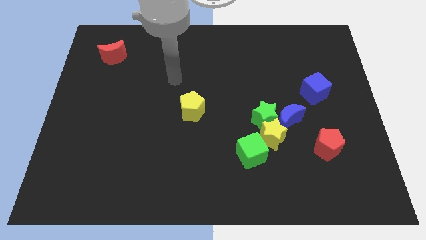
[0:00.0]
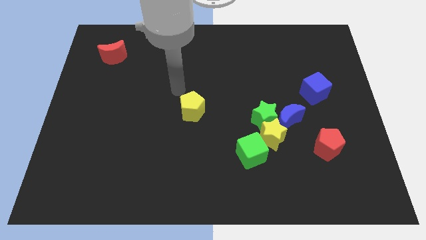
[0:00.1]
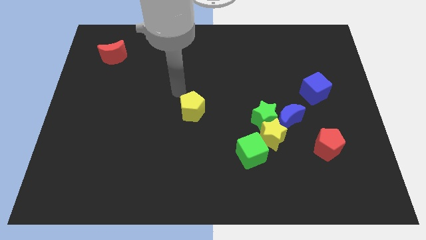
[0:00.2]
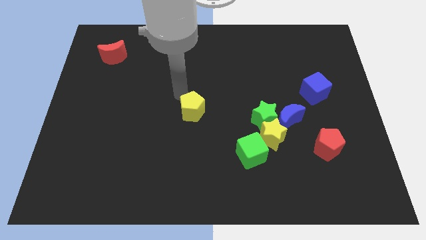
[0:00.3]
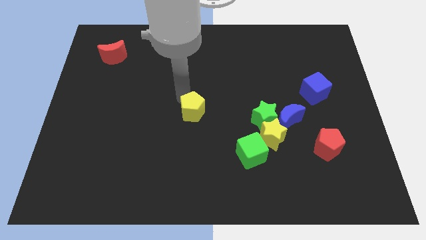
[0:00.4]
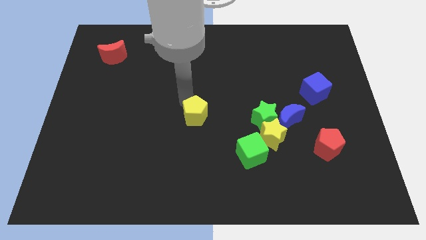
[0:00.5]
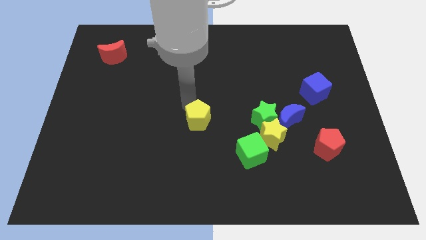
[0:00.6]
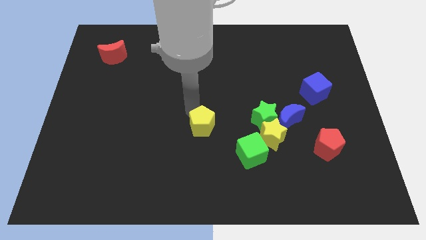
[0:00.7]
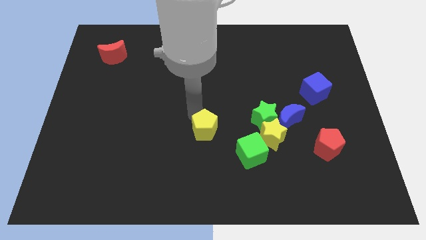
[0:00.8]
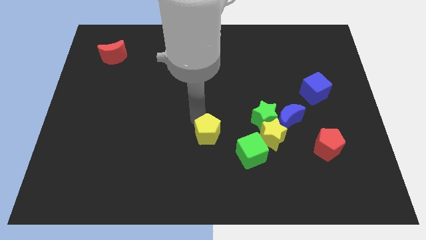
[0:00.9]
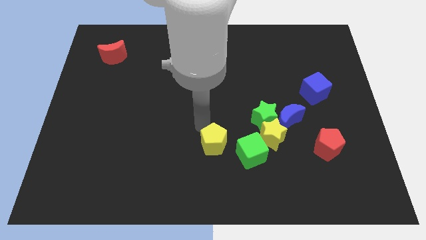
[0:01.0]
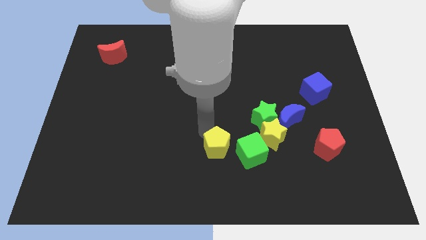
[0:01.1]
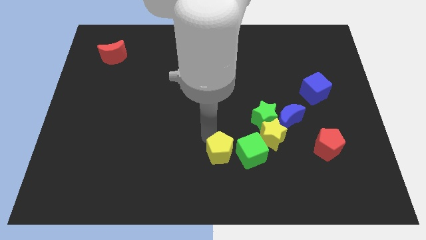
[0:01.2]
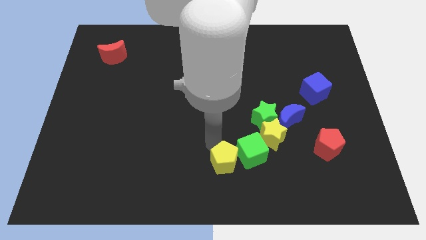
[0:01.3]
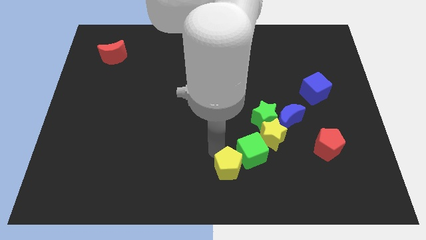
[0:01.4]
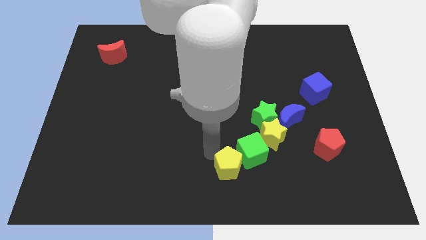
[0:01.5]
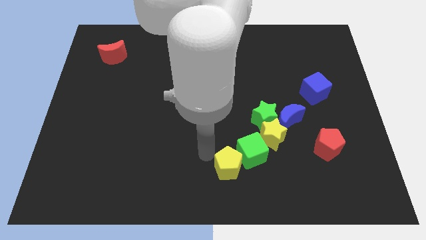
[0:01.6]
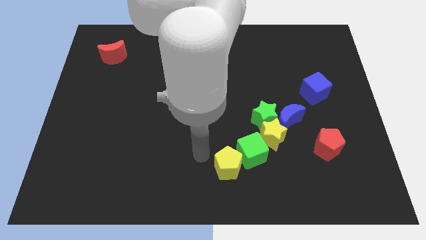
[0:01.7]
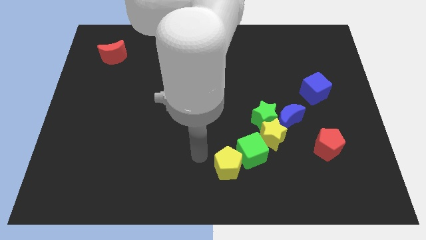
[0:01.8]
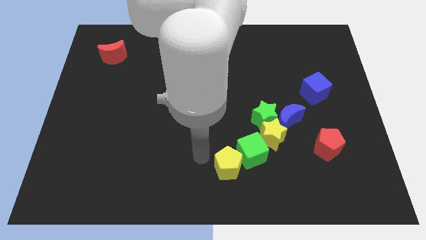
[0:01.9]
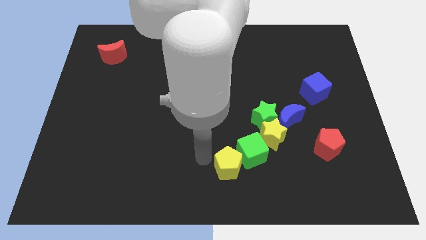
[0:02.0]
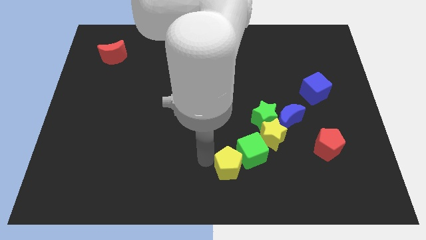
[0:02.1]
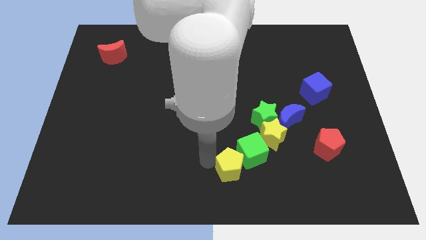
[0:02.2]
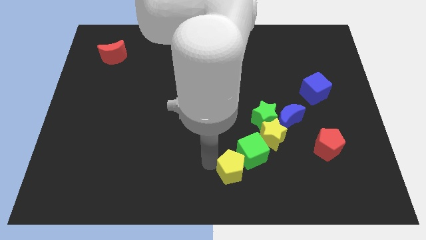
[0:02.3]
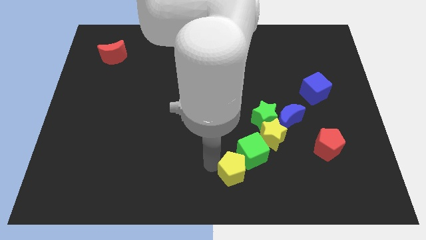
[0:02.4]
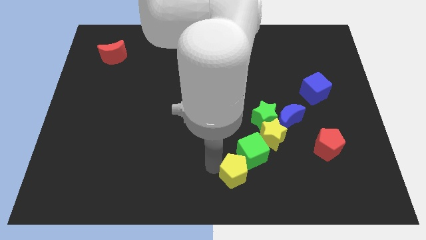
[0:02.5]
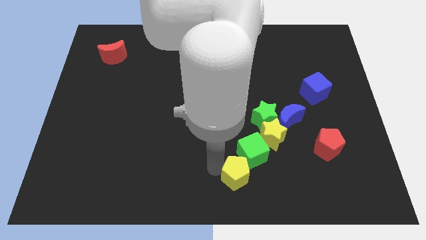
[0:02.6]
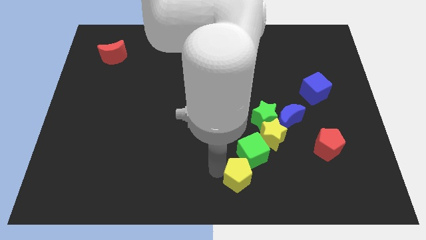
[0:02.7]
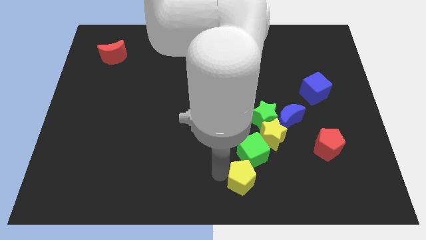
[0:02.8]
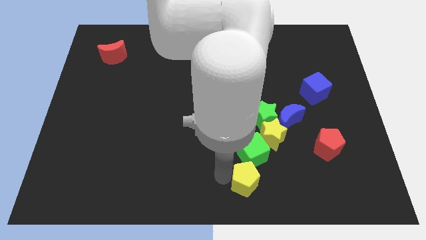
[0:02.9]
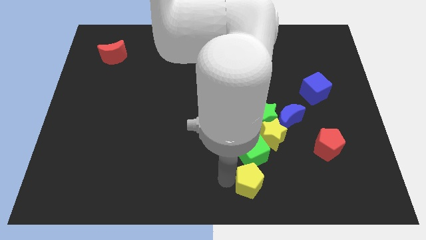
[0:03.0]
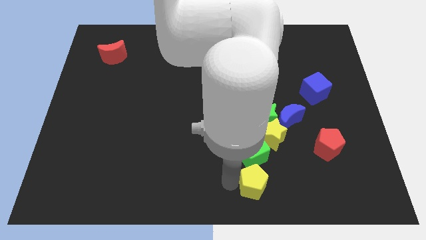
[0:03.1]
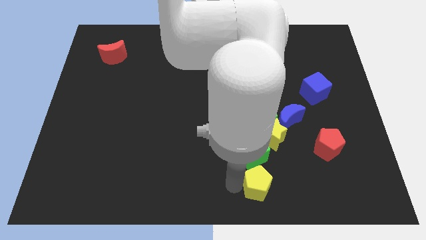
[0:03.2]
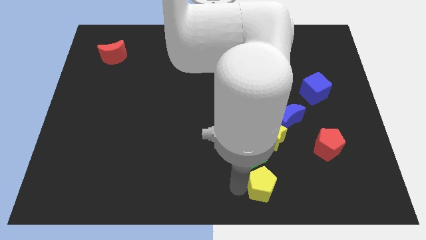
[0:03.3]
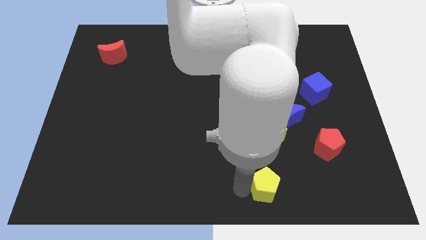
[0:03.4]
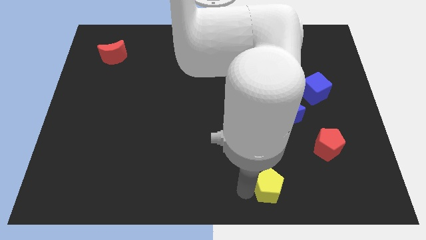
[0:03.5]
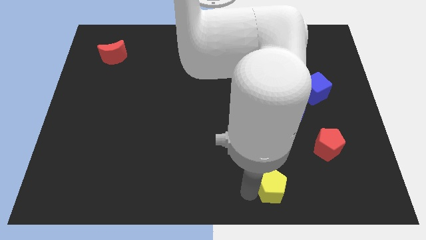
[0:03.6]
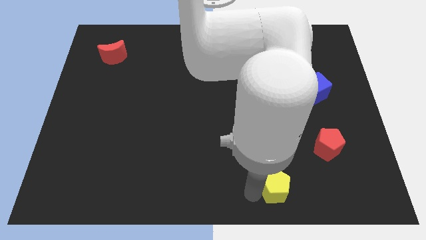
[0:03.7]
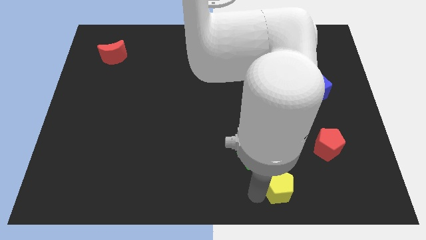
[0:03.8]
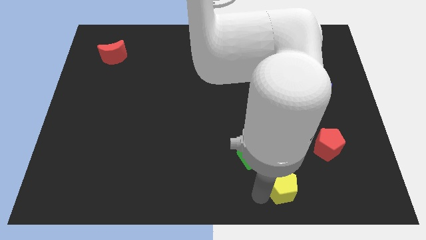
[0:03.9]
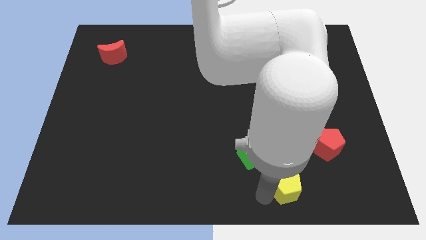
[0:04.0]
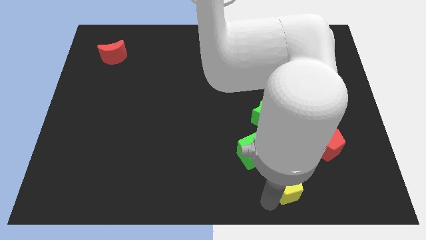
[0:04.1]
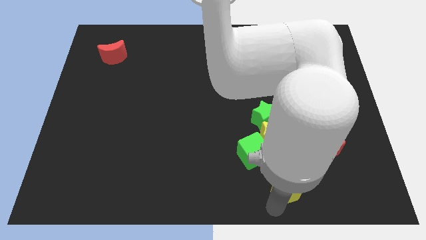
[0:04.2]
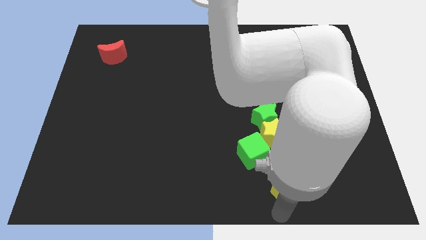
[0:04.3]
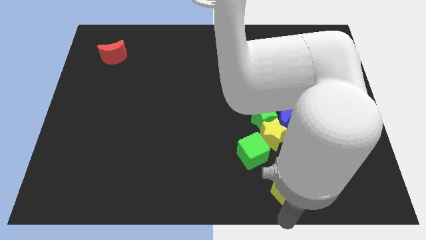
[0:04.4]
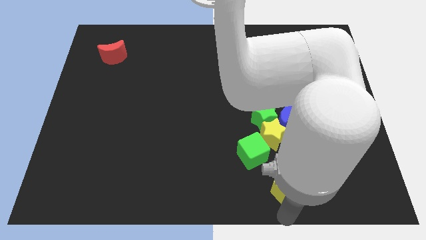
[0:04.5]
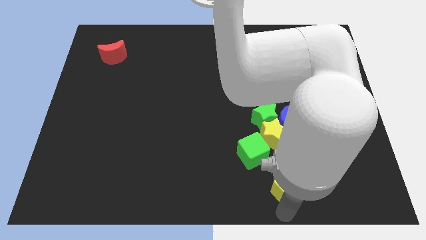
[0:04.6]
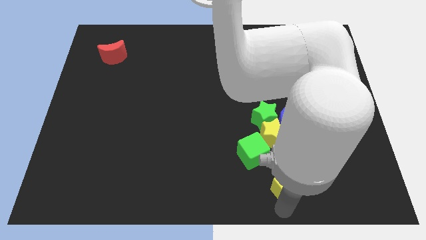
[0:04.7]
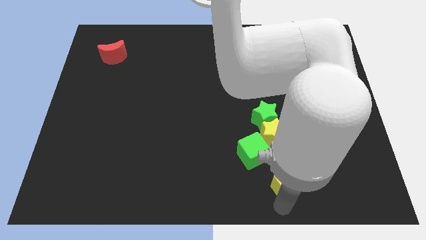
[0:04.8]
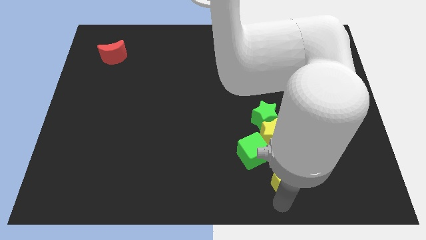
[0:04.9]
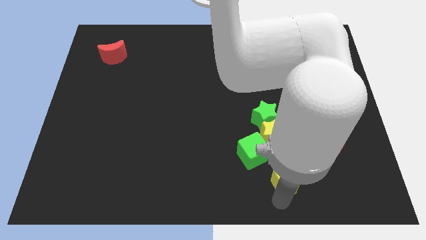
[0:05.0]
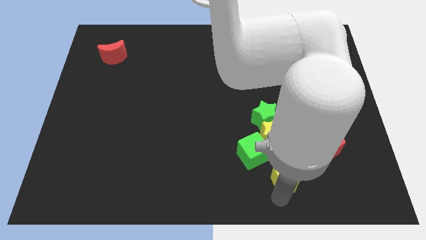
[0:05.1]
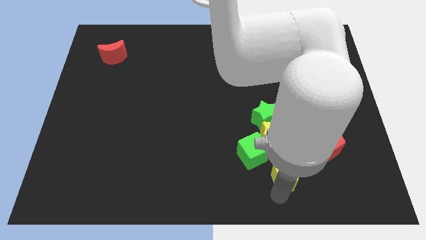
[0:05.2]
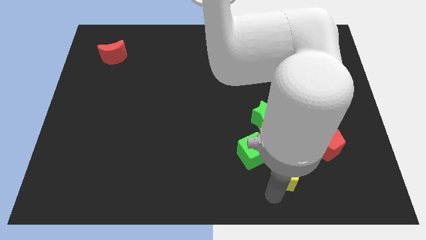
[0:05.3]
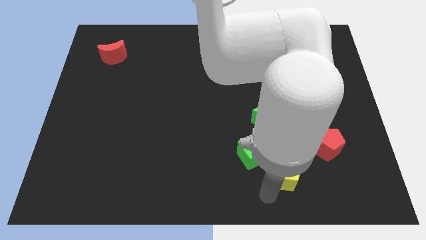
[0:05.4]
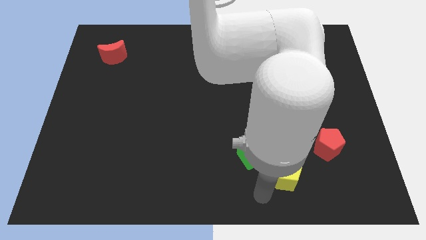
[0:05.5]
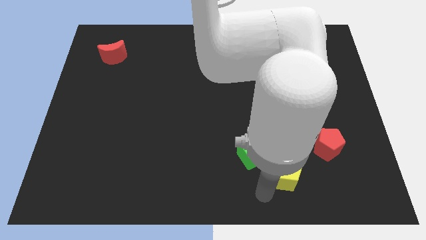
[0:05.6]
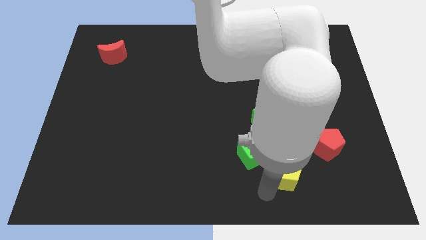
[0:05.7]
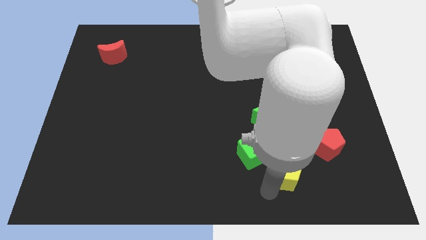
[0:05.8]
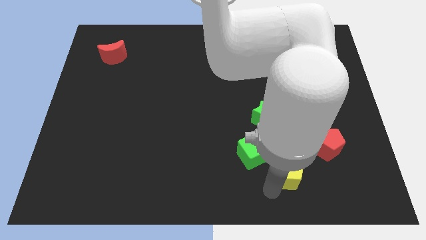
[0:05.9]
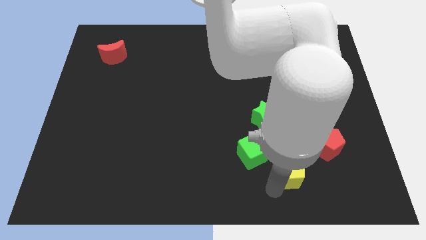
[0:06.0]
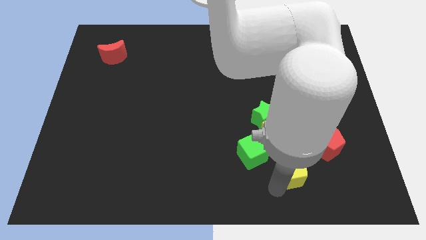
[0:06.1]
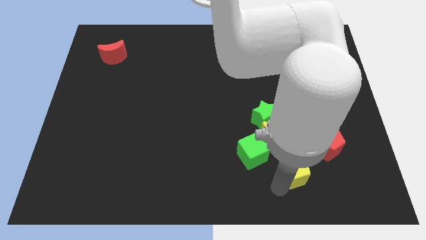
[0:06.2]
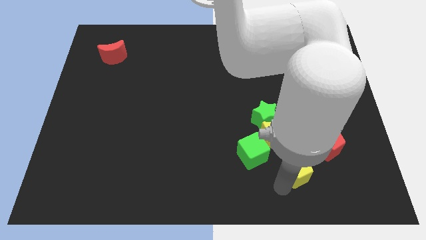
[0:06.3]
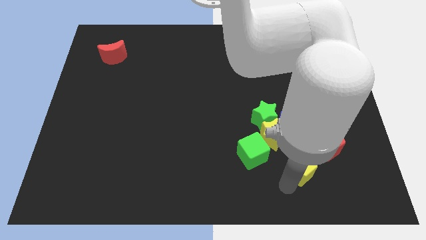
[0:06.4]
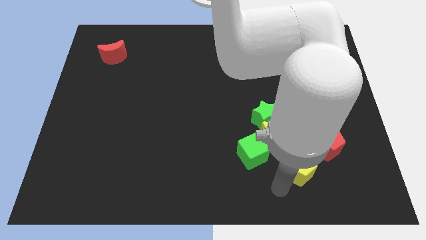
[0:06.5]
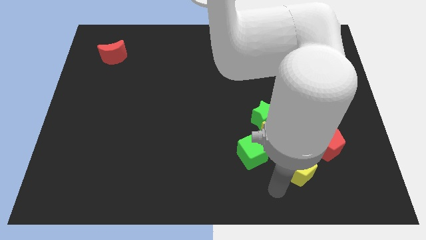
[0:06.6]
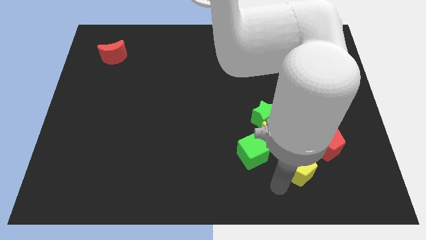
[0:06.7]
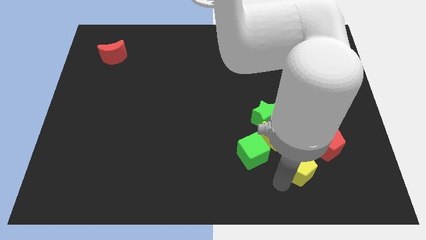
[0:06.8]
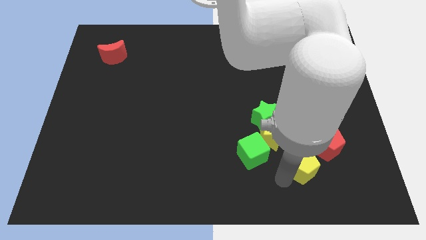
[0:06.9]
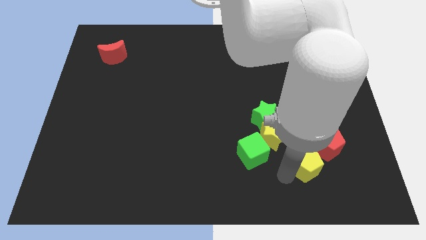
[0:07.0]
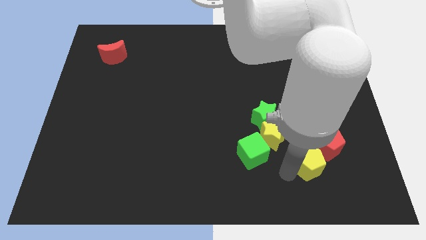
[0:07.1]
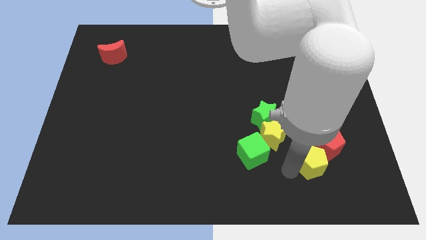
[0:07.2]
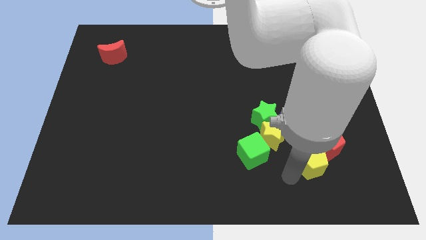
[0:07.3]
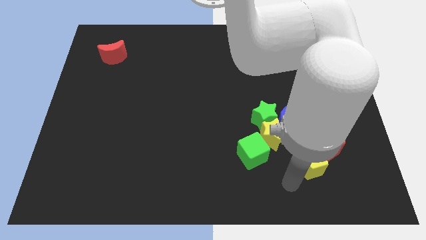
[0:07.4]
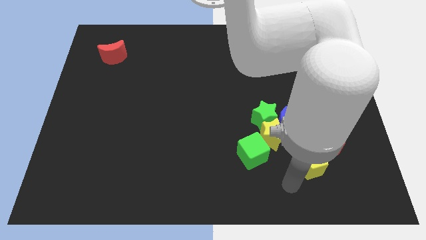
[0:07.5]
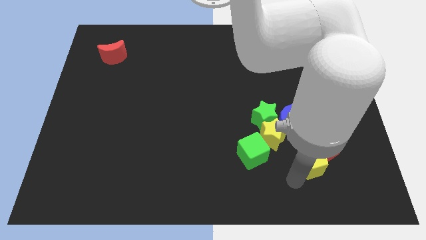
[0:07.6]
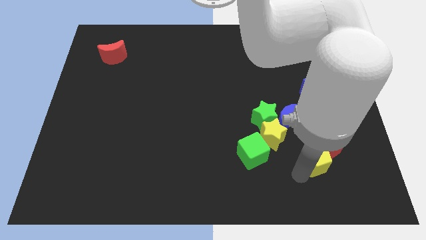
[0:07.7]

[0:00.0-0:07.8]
push the yellow pentagon close to the red pentagon

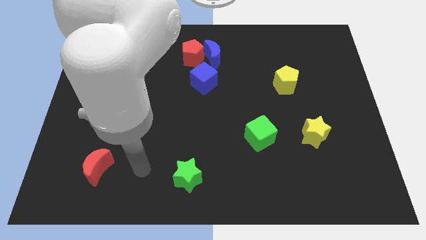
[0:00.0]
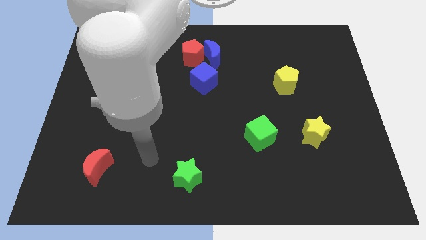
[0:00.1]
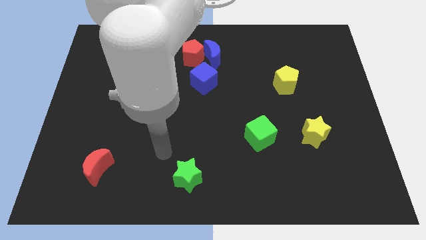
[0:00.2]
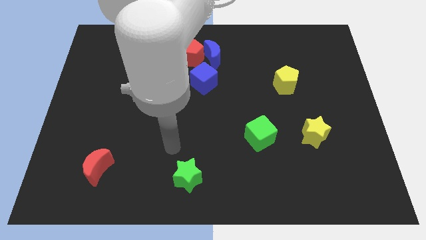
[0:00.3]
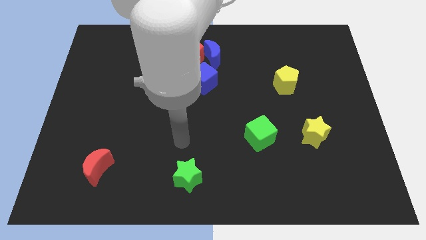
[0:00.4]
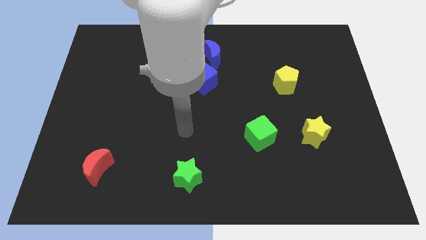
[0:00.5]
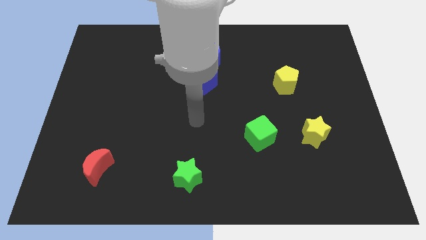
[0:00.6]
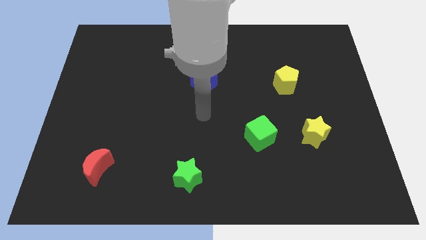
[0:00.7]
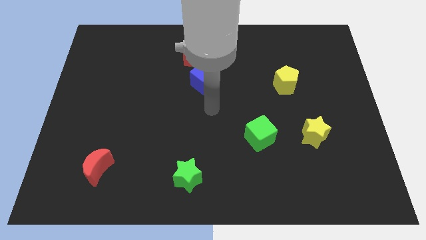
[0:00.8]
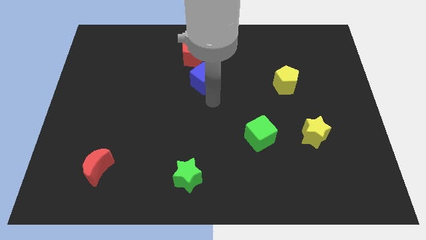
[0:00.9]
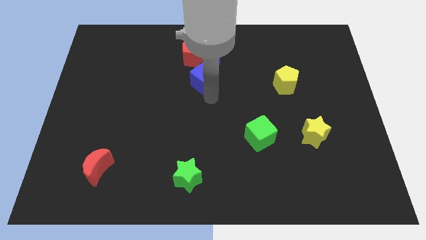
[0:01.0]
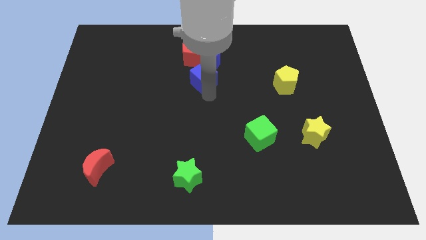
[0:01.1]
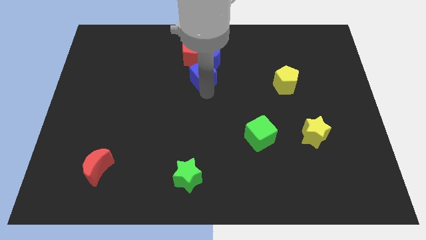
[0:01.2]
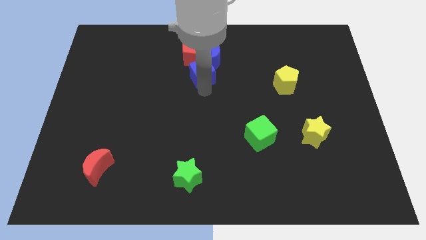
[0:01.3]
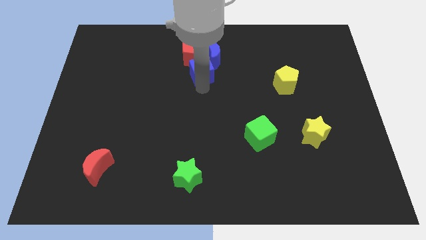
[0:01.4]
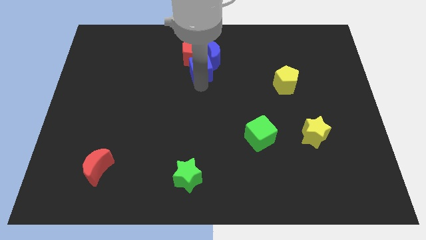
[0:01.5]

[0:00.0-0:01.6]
push the blue cube towards the red pentagon
